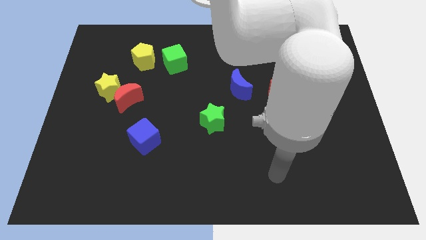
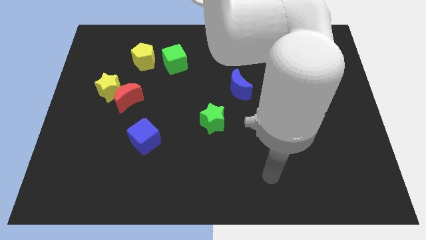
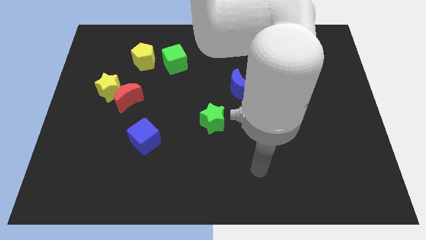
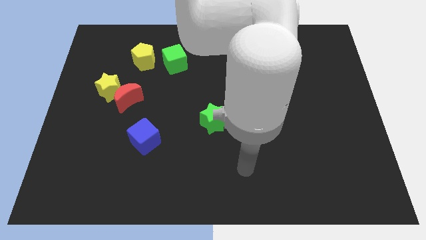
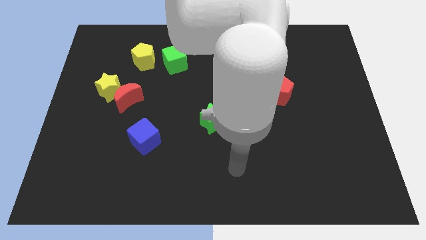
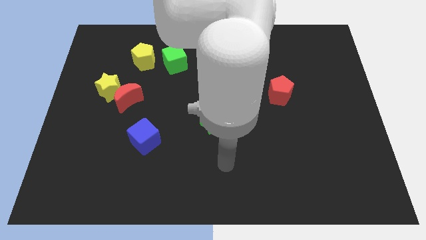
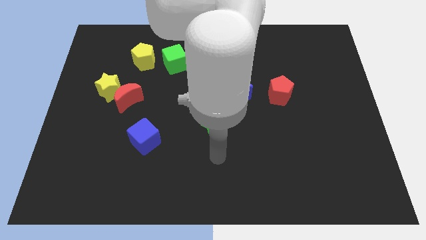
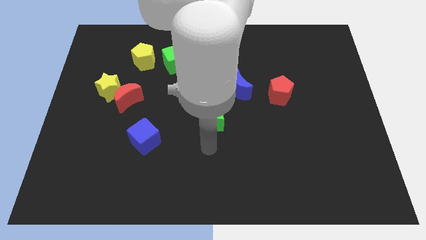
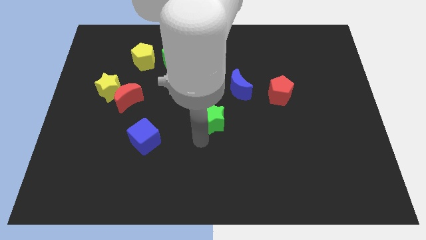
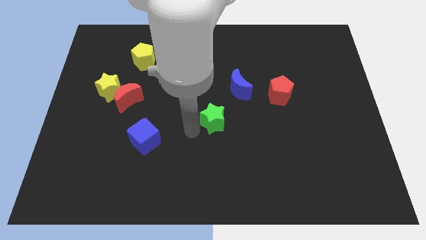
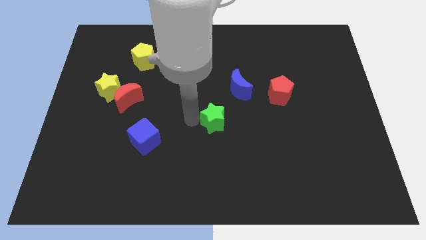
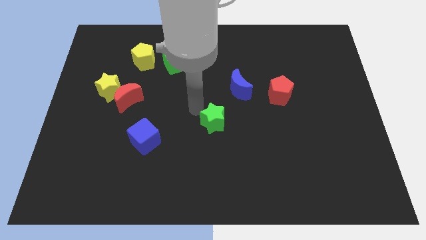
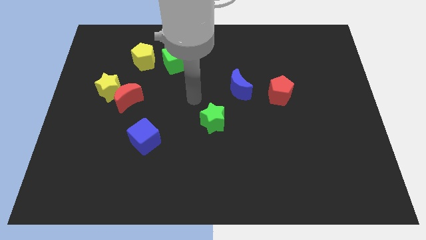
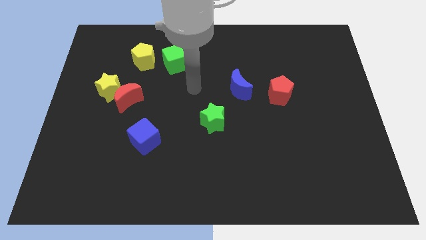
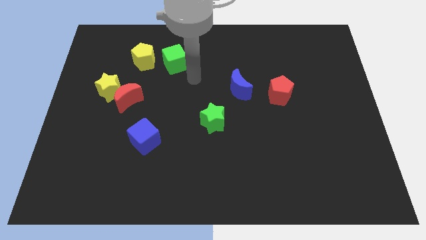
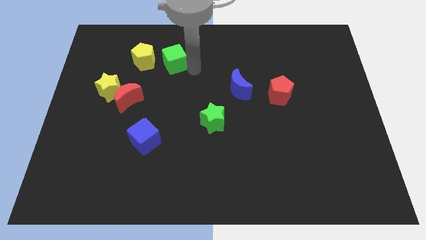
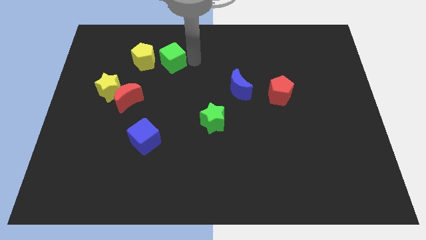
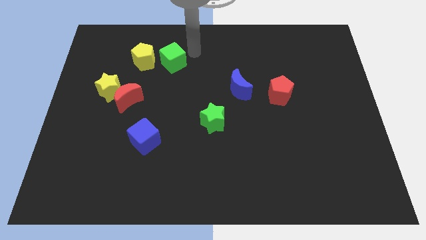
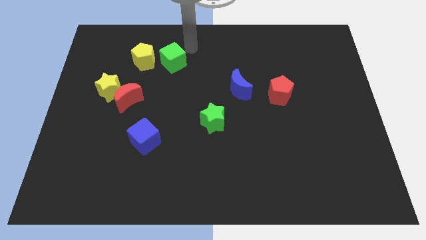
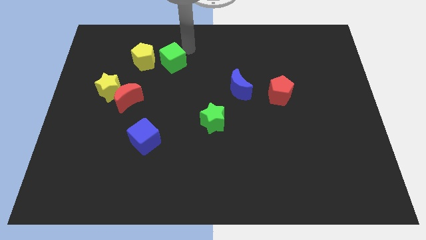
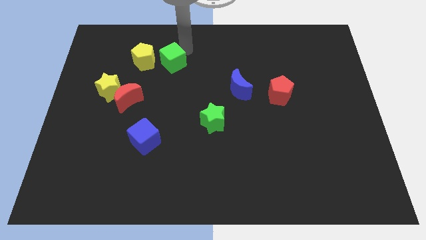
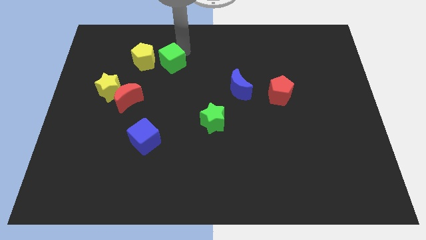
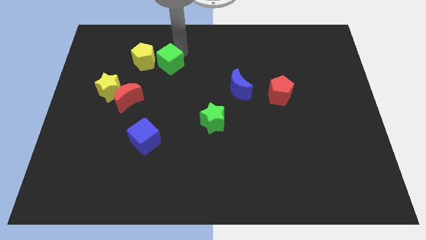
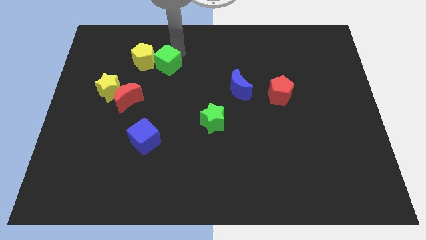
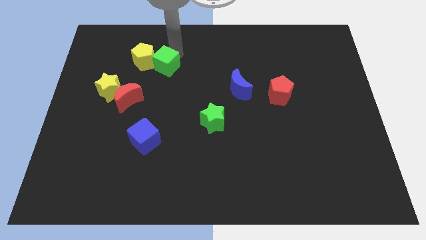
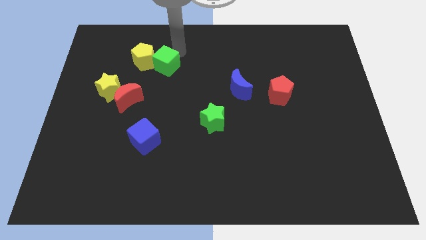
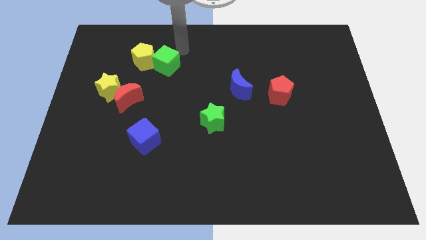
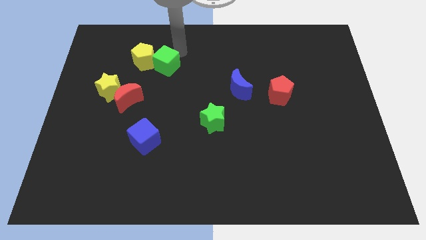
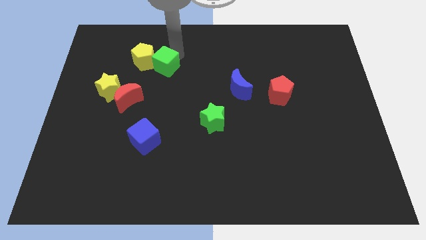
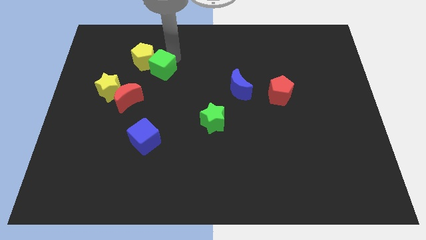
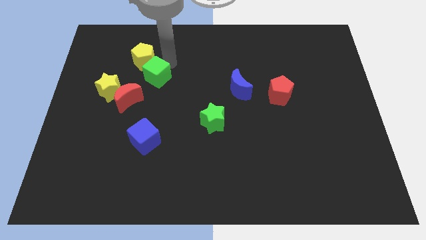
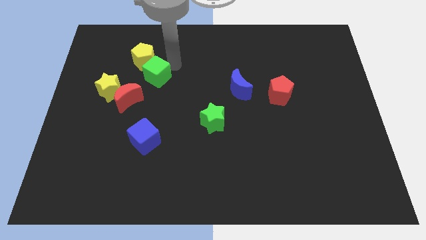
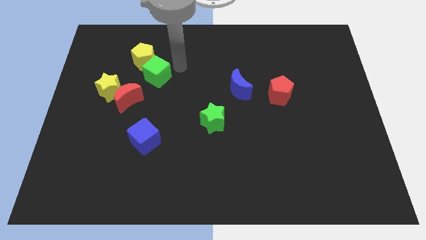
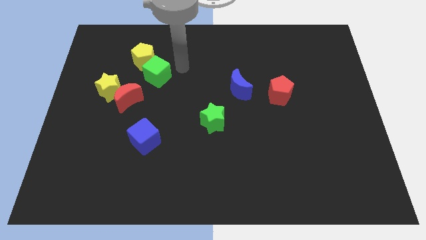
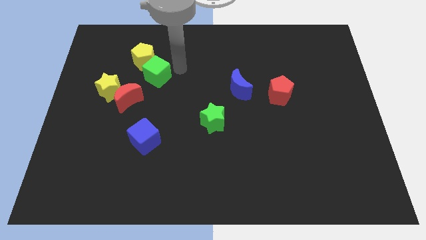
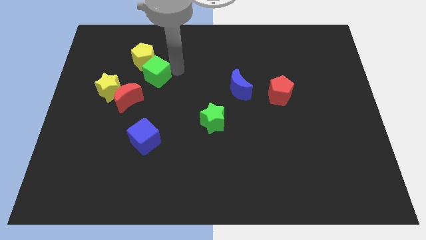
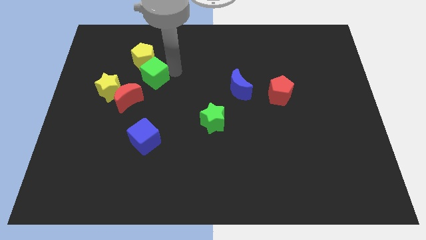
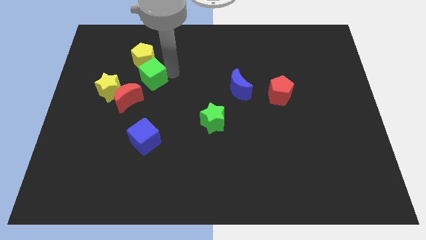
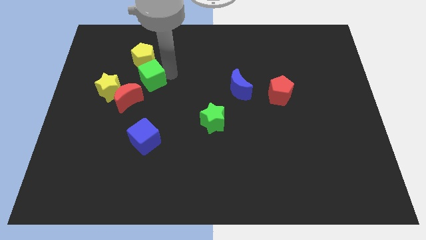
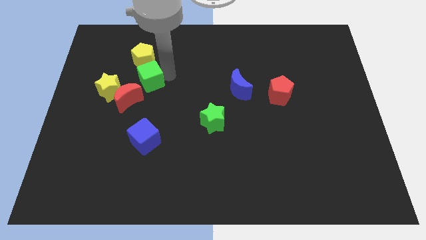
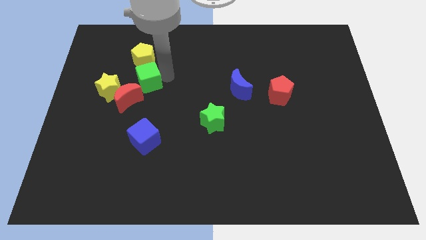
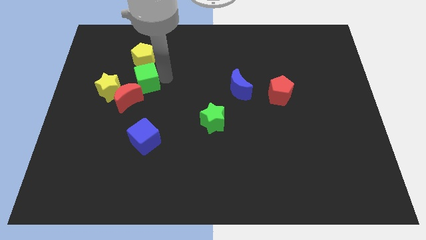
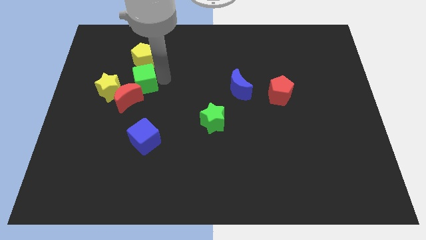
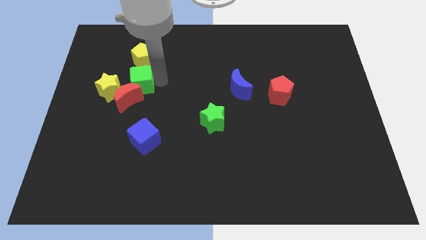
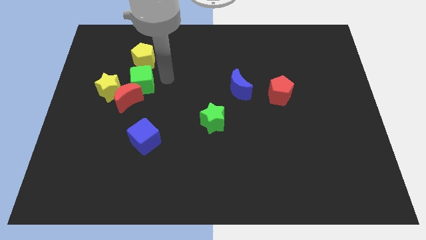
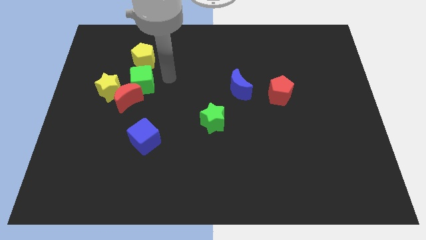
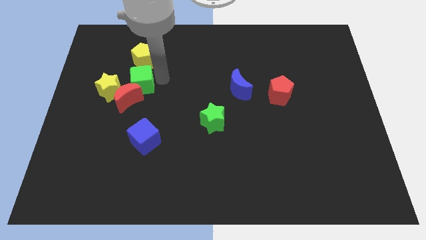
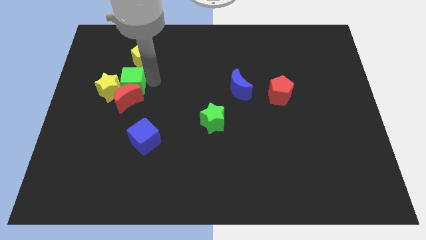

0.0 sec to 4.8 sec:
push the green cube next to the yellow star

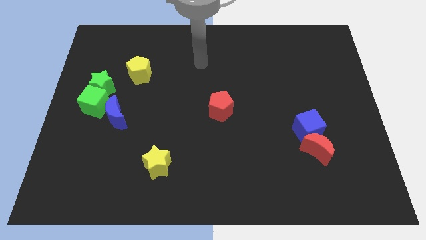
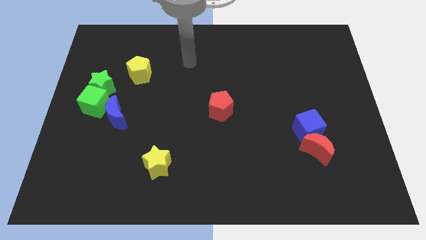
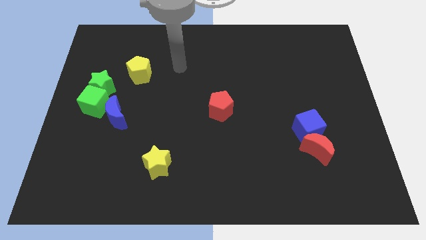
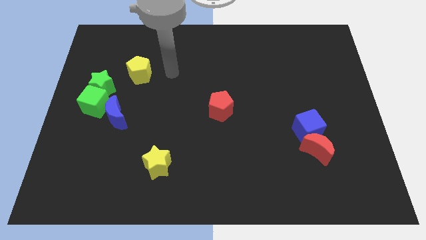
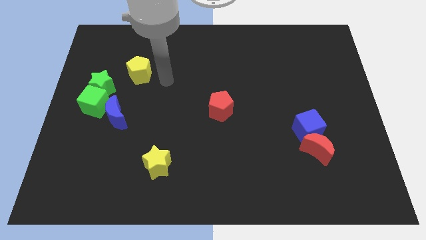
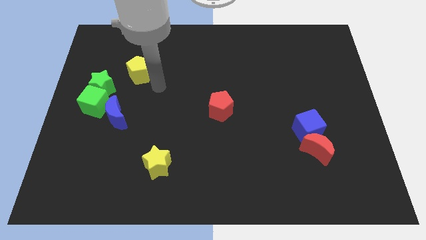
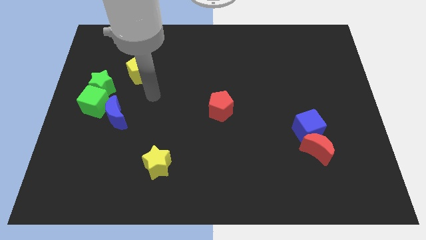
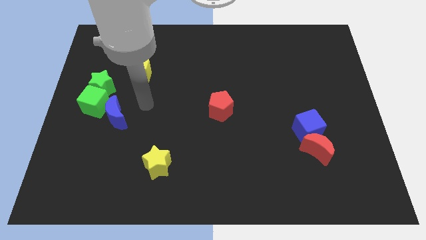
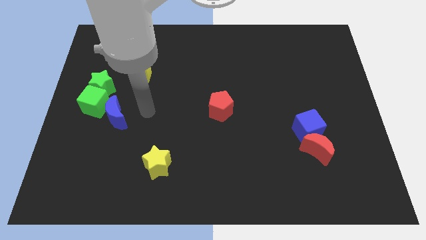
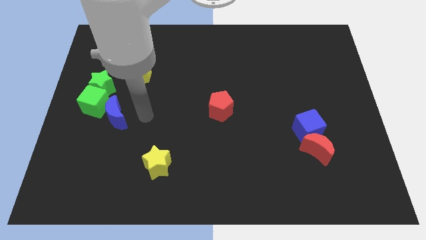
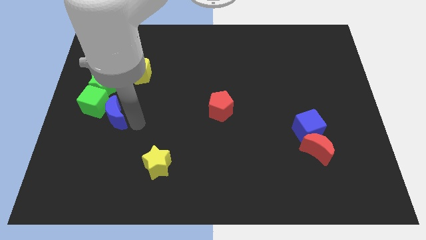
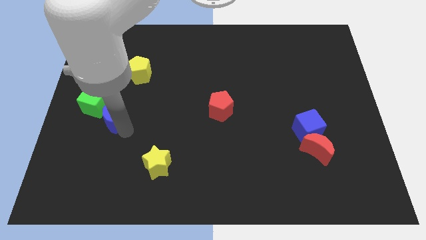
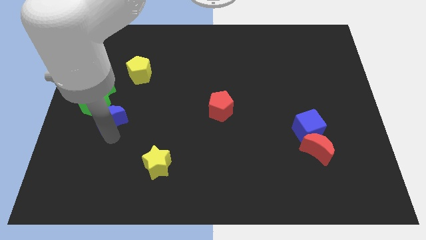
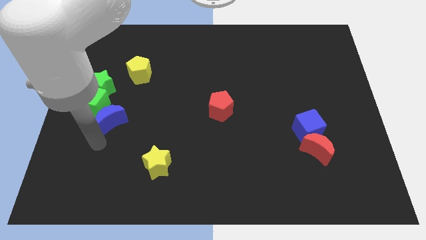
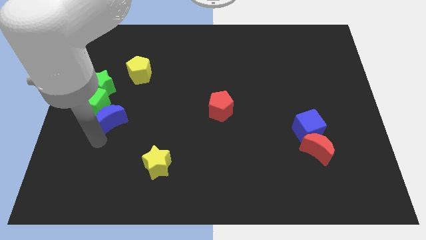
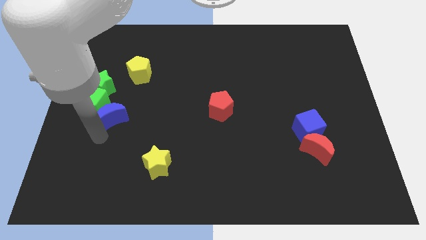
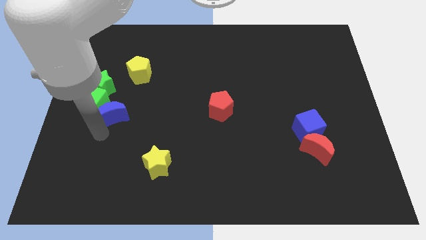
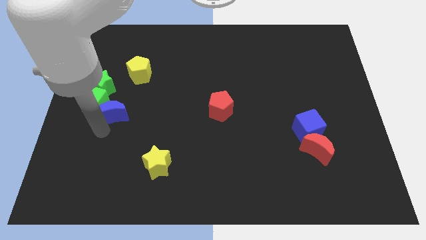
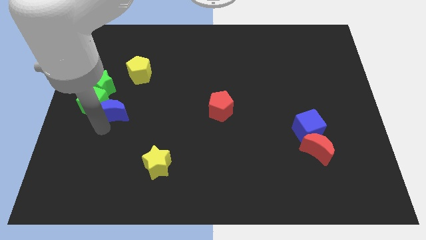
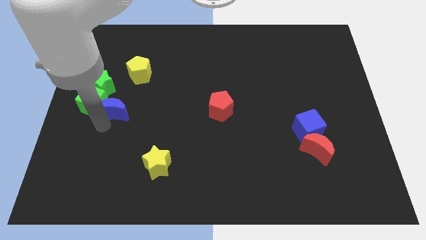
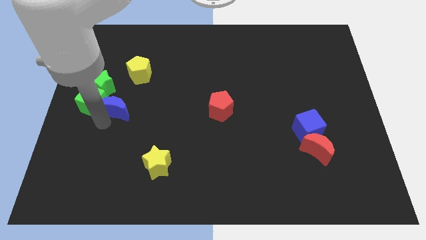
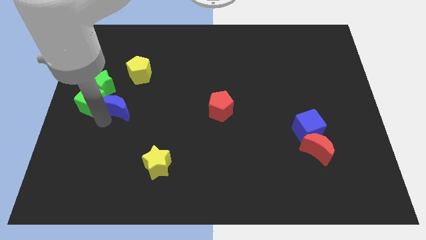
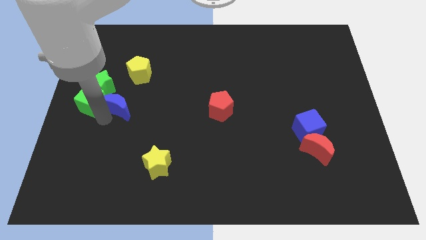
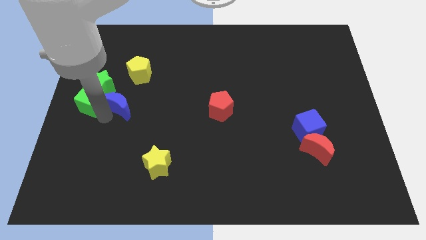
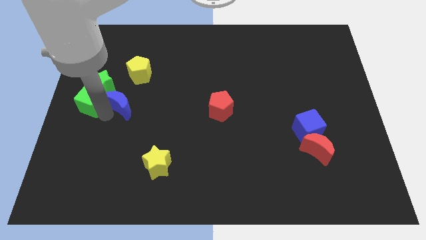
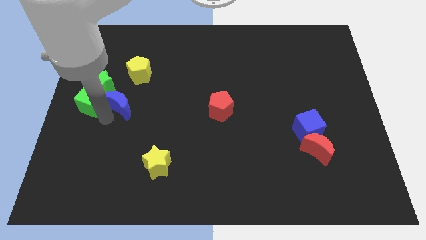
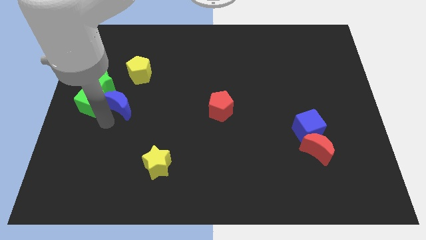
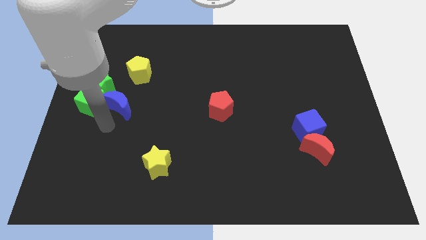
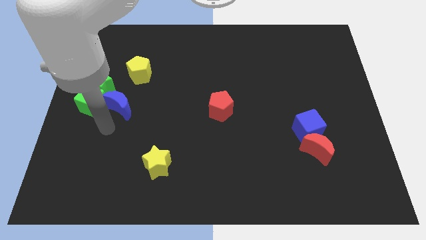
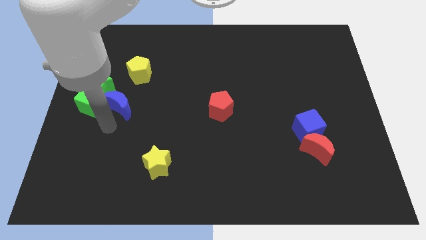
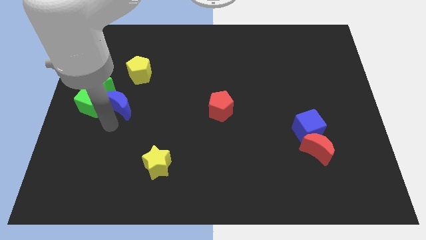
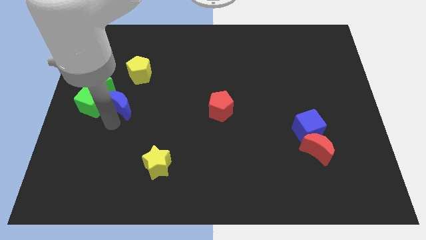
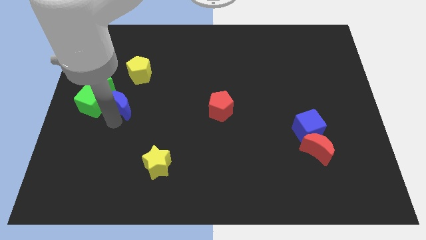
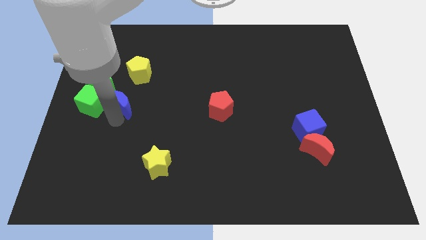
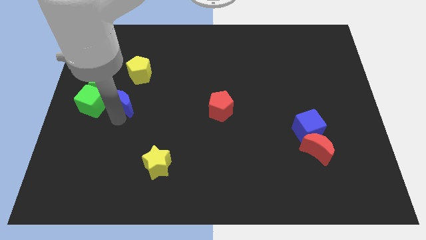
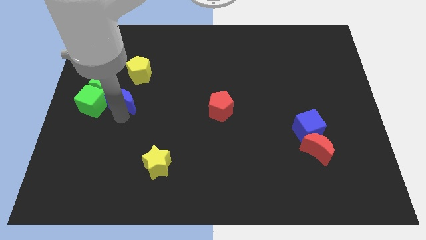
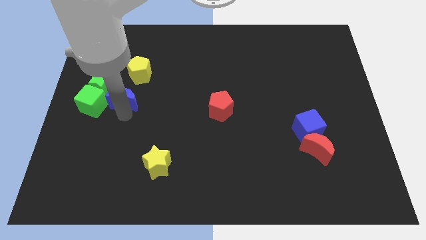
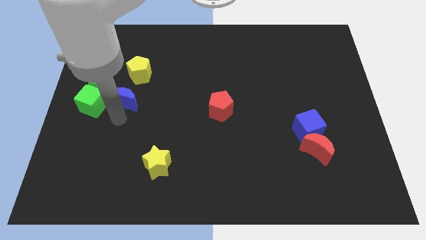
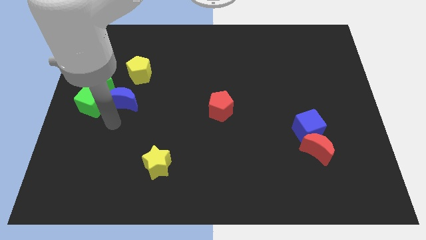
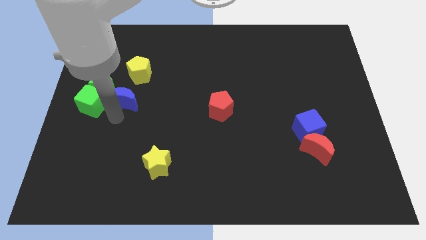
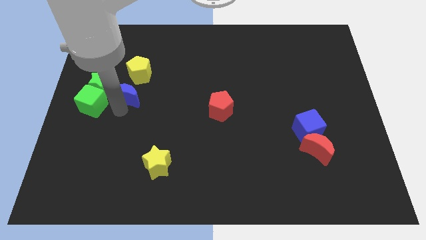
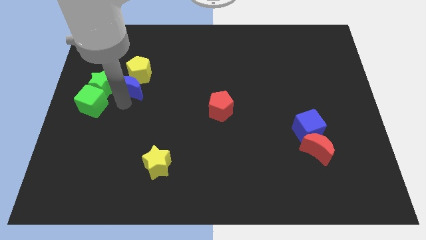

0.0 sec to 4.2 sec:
put the blue moon towards the yellow pentagon
